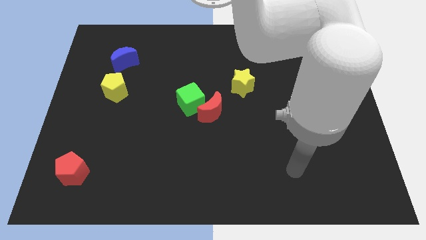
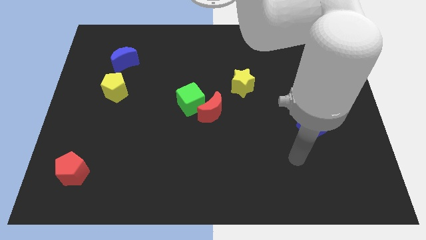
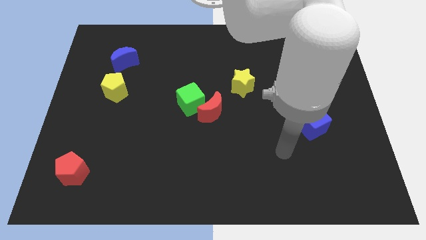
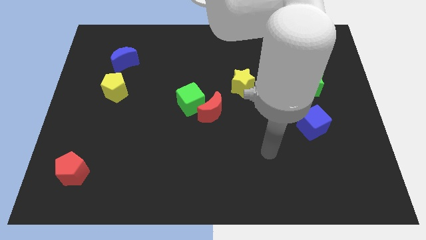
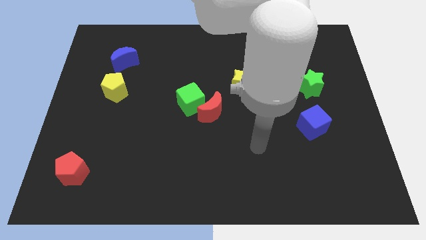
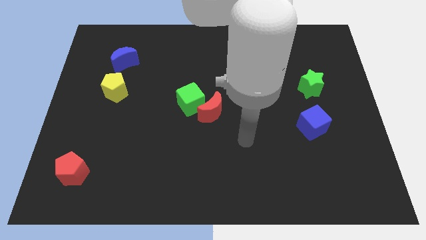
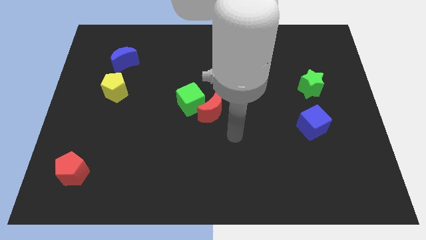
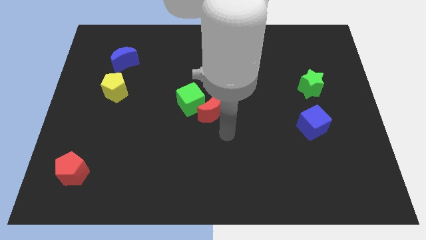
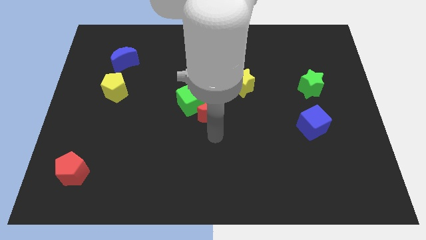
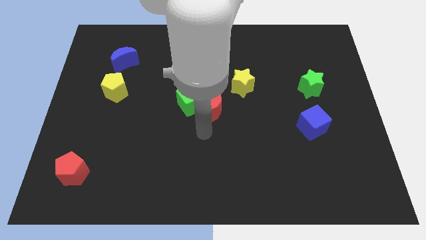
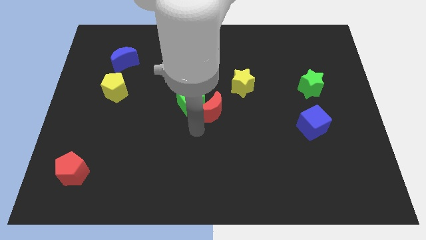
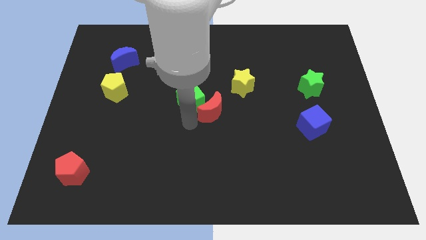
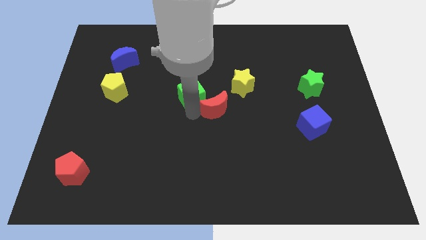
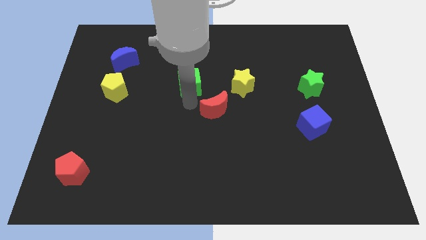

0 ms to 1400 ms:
separate the red moon from the green cube

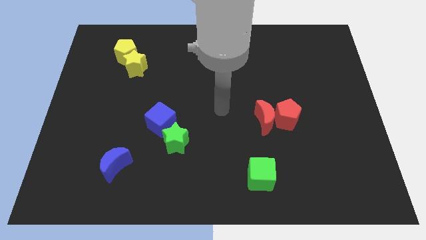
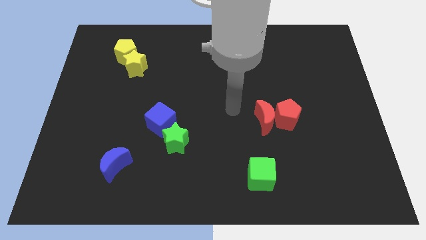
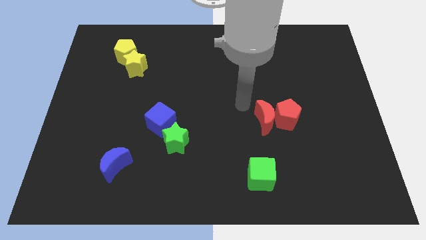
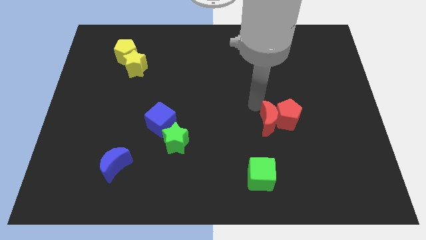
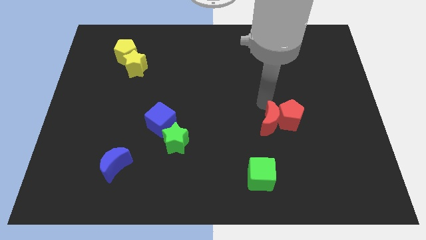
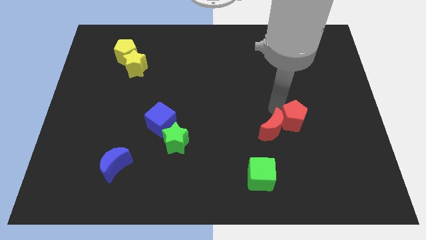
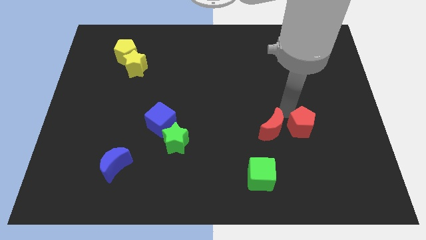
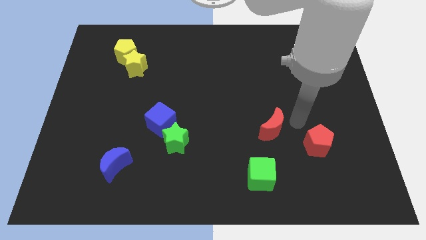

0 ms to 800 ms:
pull the red moon apart from the red pentagon

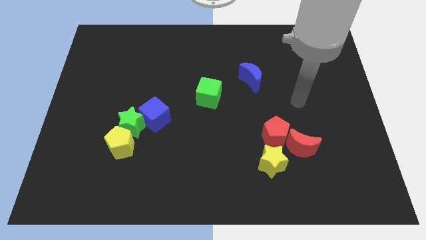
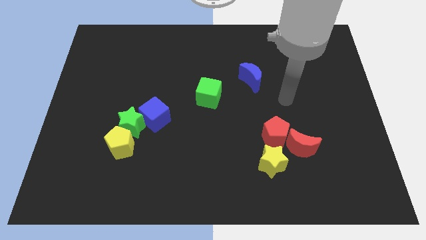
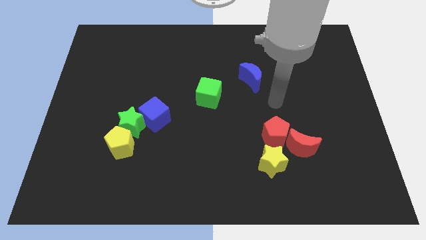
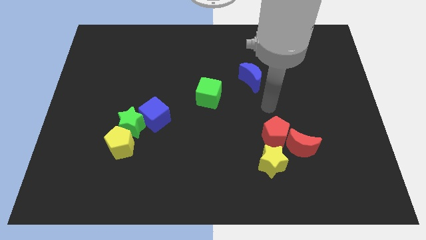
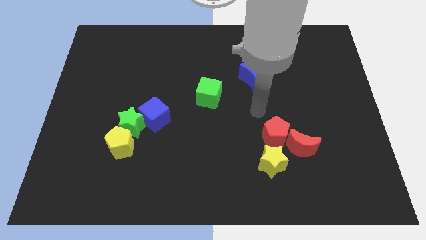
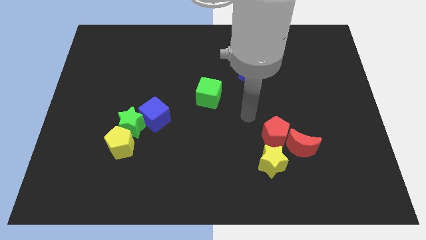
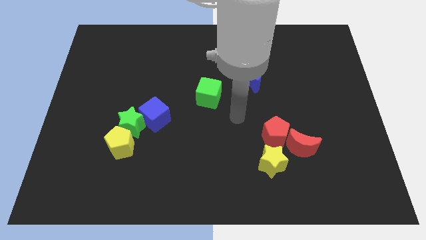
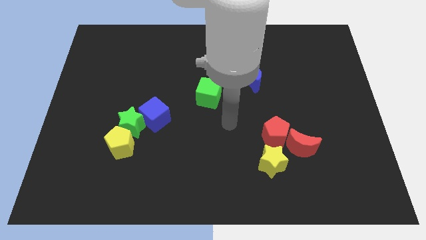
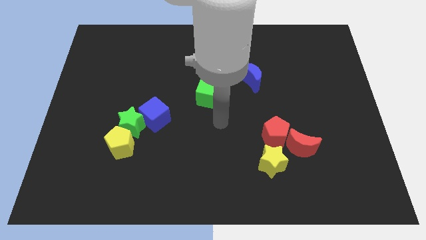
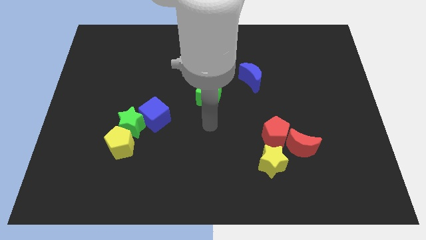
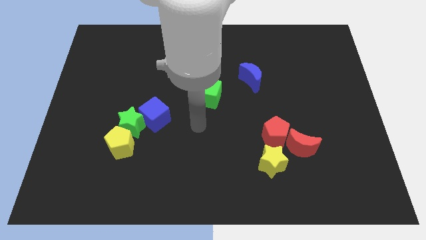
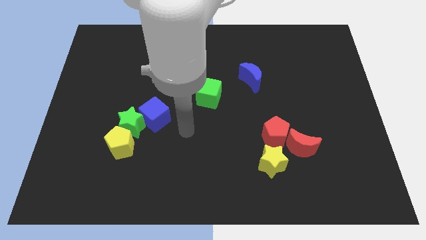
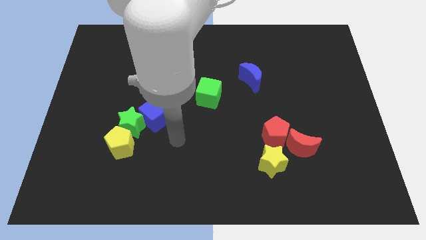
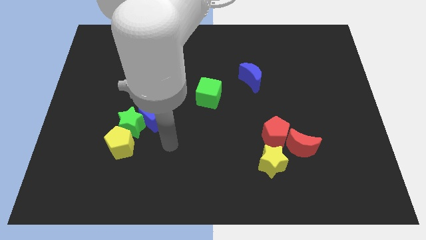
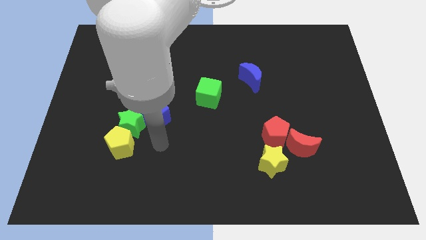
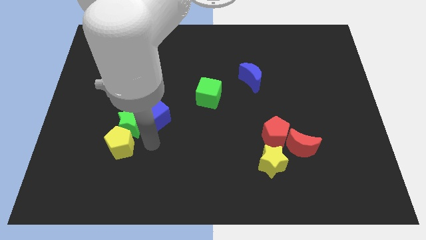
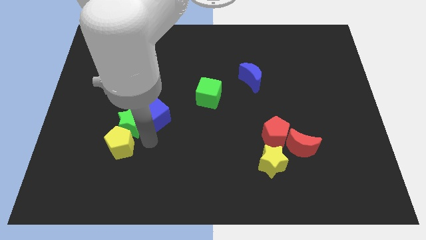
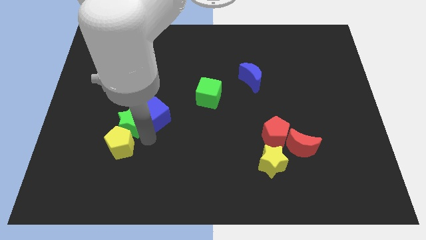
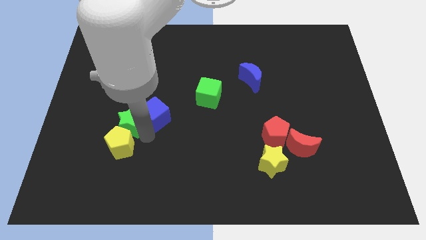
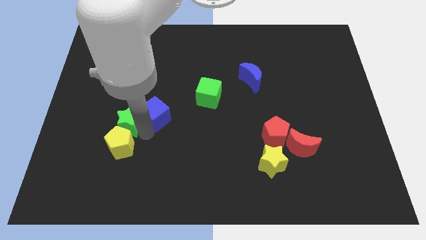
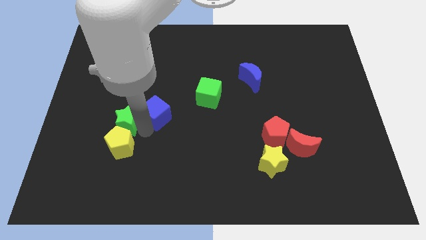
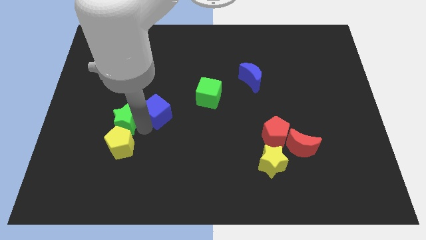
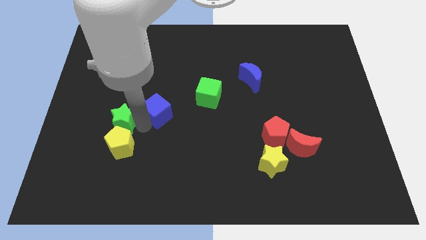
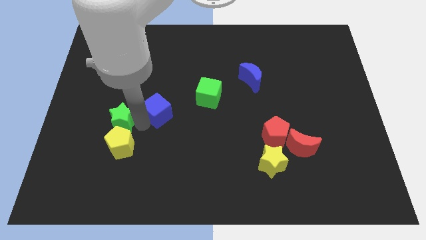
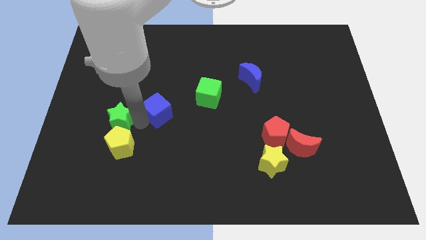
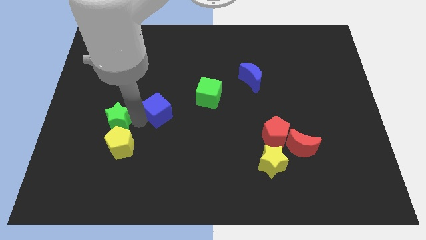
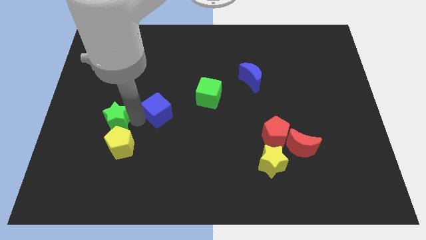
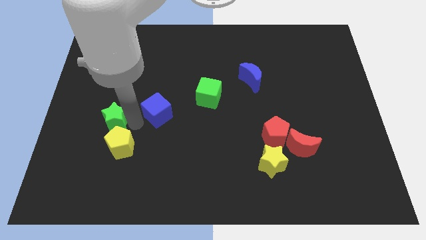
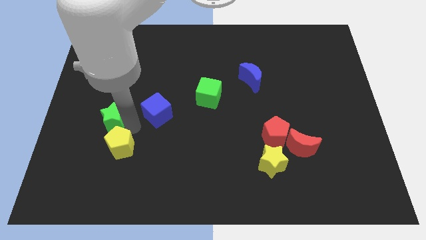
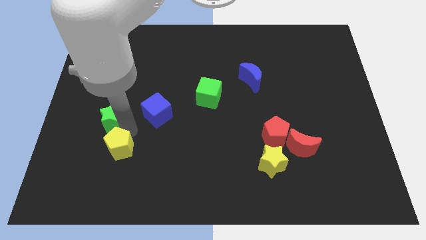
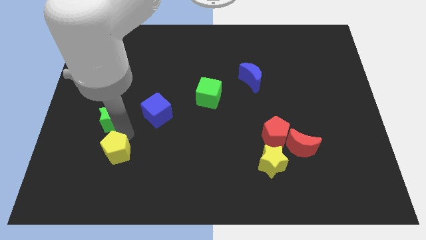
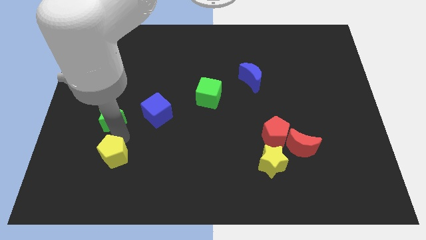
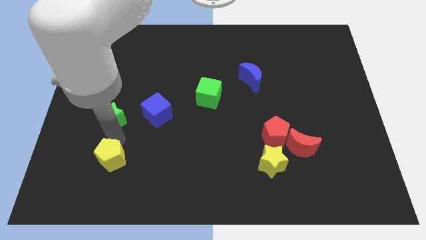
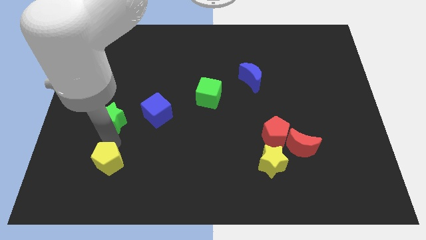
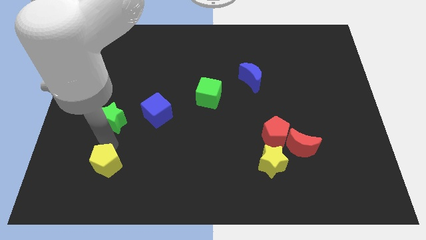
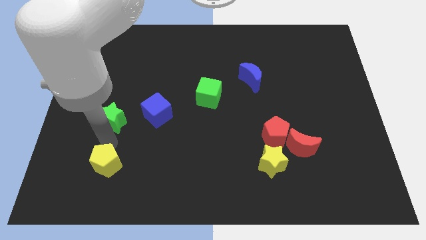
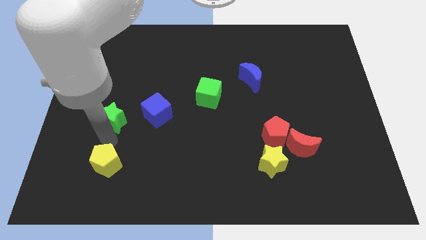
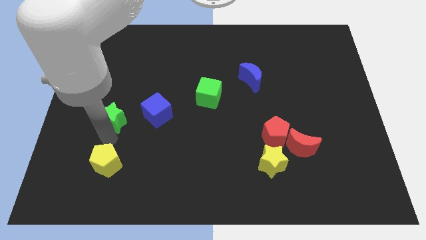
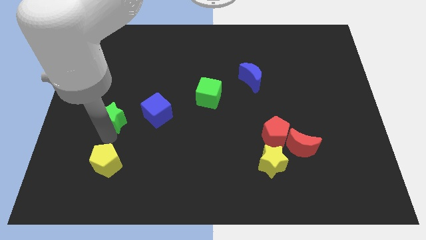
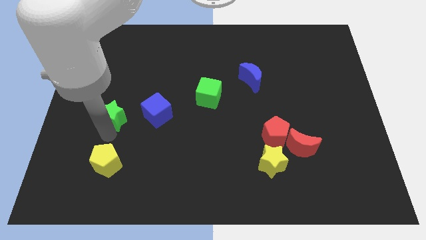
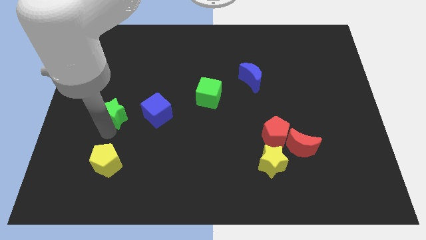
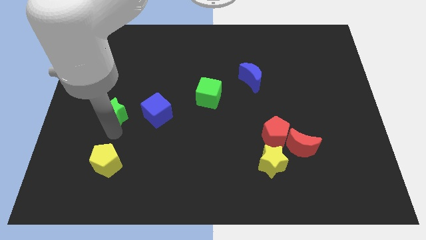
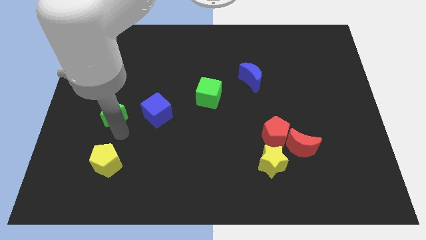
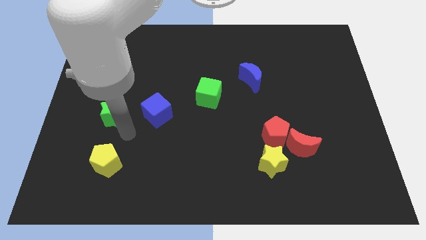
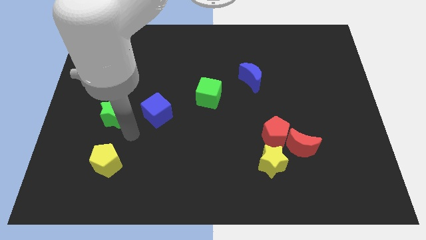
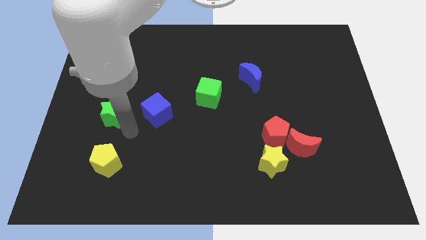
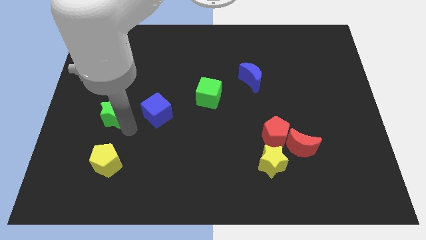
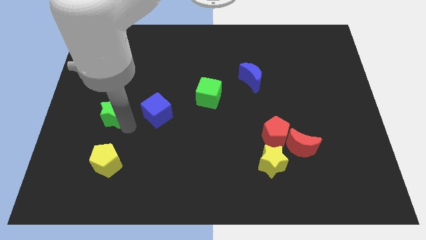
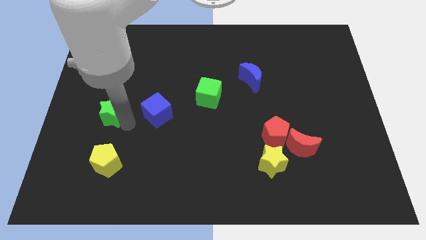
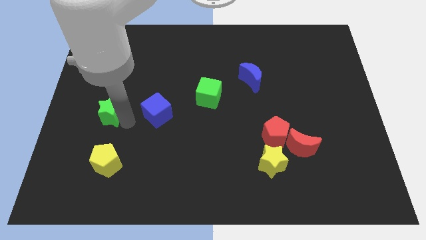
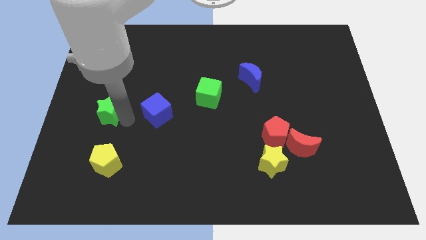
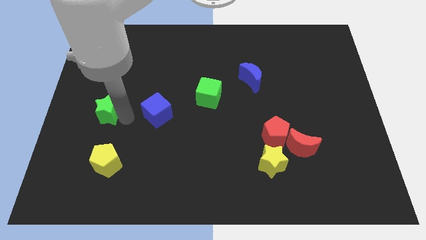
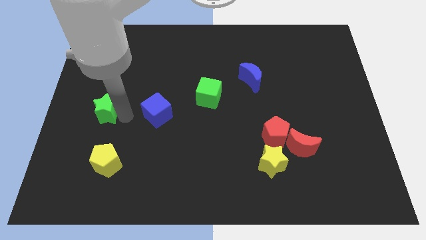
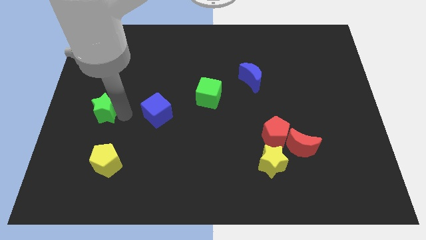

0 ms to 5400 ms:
pull the green star apart from the blue cube and yellow pentagon

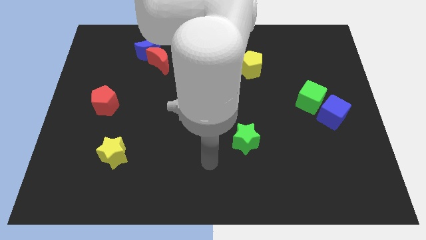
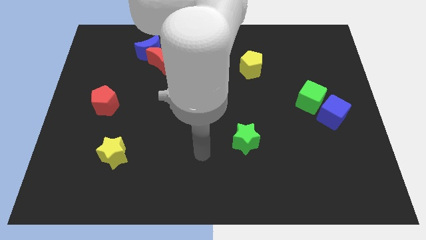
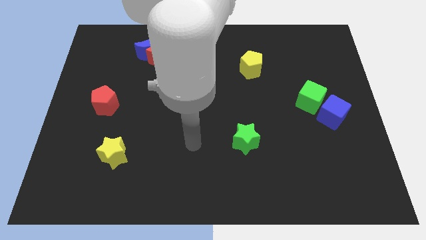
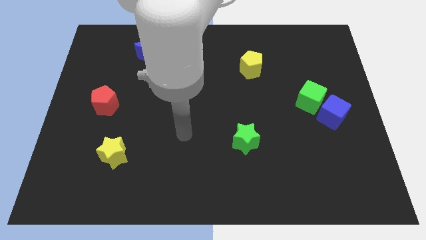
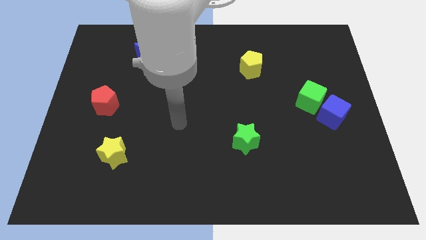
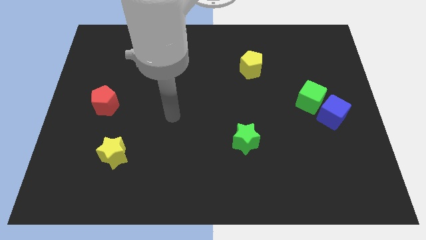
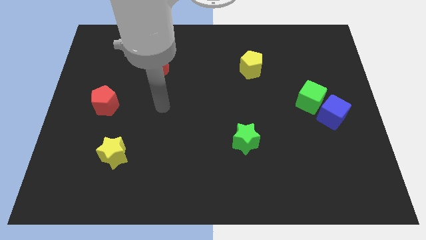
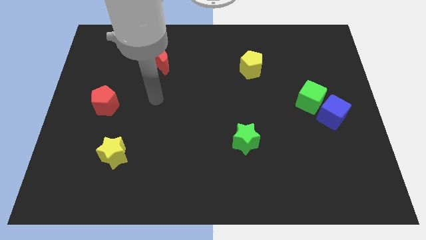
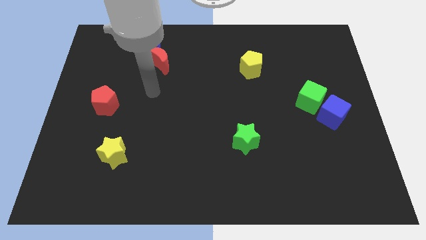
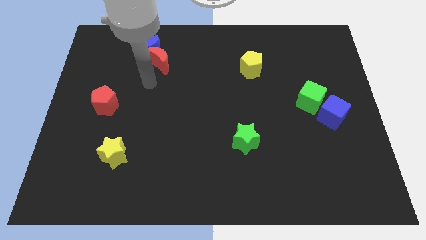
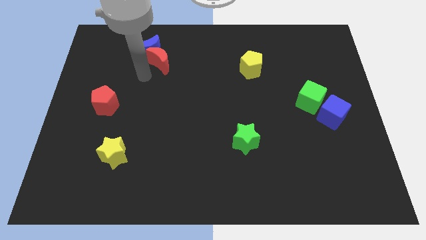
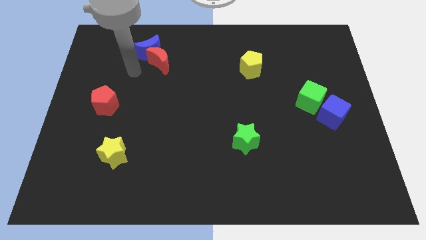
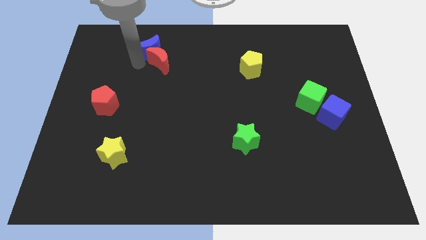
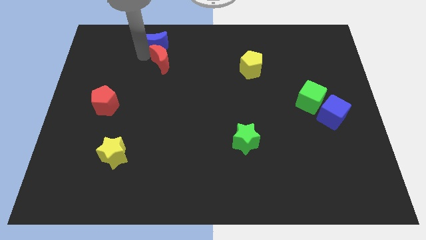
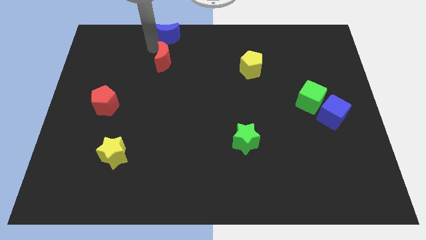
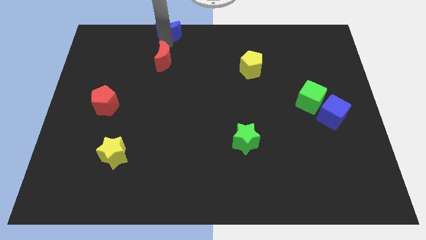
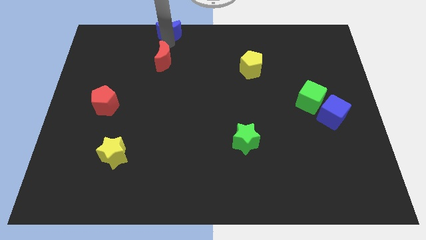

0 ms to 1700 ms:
move the red moon away from the blue moon

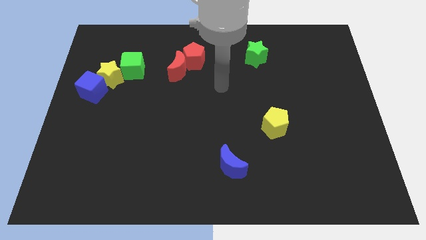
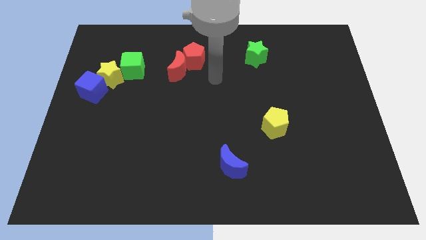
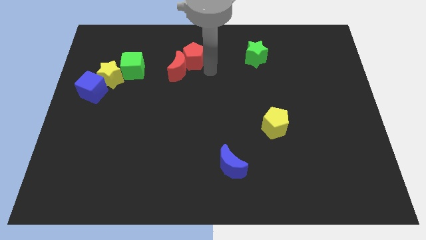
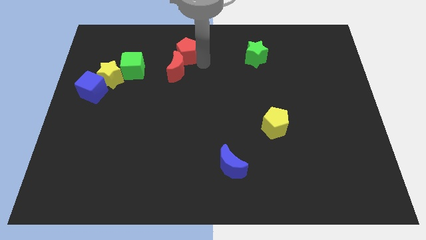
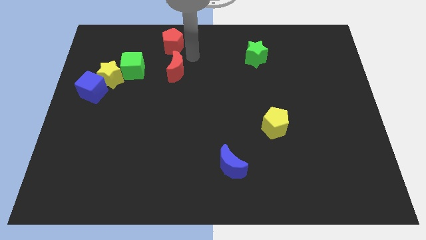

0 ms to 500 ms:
separate the red moon from the red pentagon
